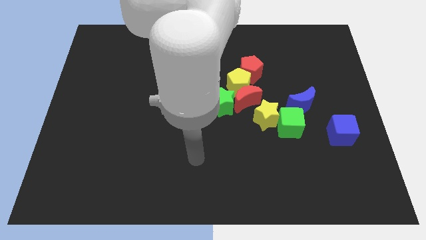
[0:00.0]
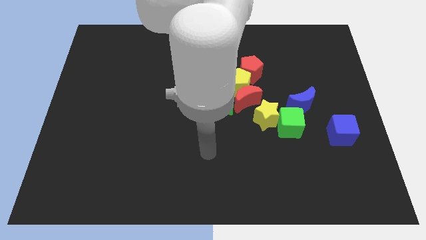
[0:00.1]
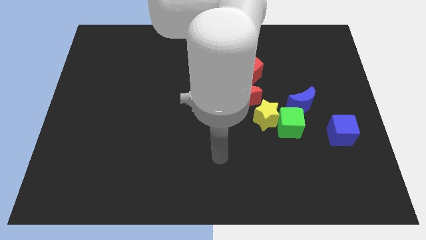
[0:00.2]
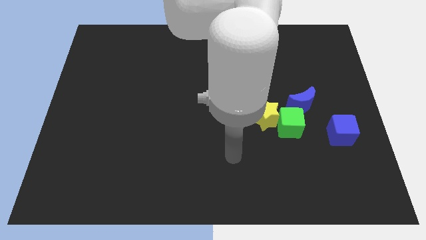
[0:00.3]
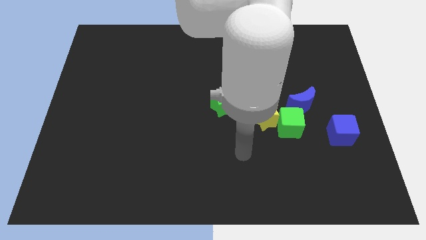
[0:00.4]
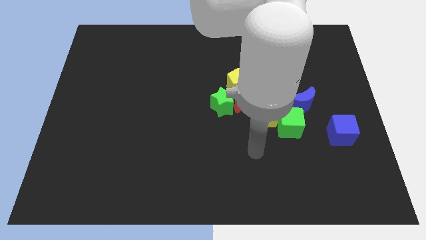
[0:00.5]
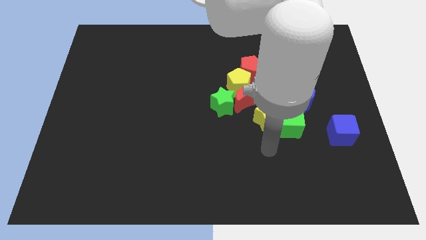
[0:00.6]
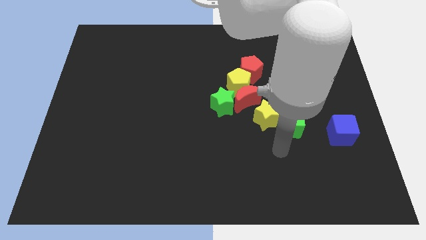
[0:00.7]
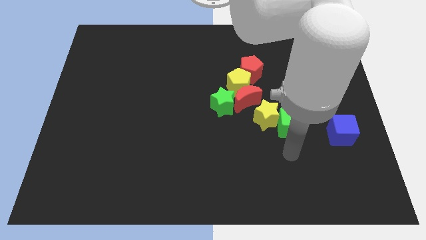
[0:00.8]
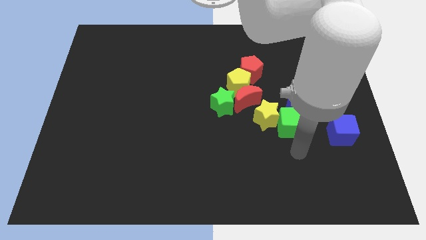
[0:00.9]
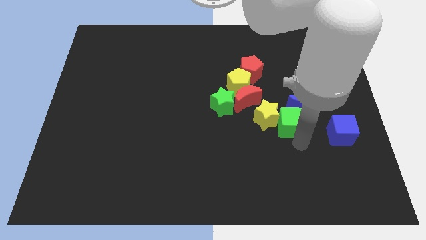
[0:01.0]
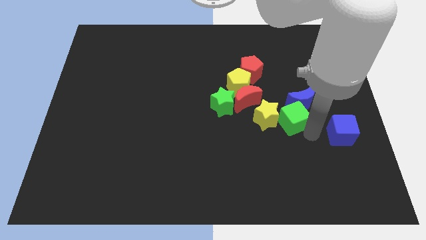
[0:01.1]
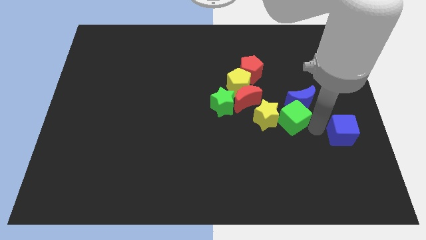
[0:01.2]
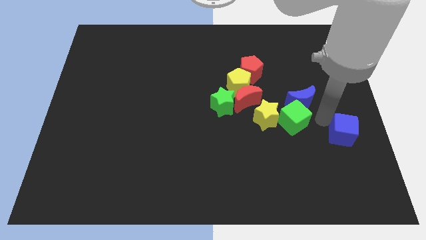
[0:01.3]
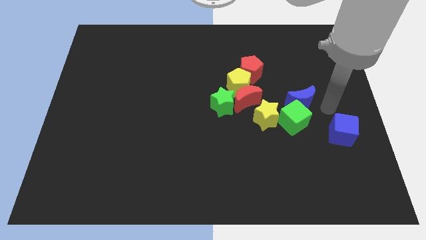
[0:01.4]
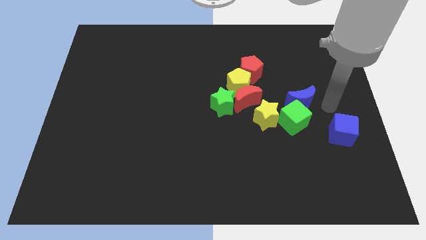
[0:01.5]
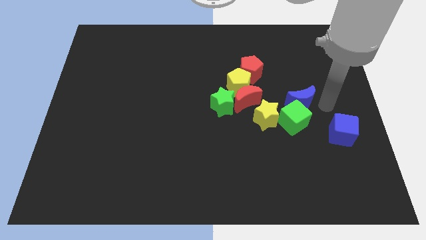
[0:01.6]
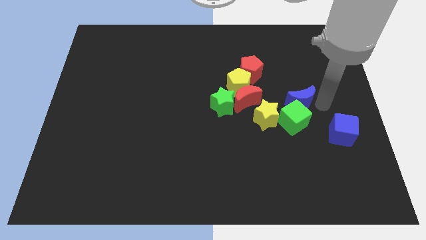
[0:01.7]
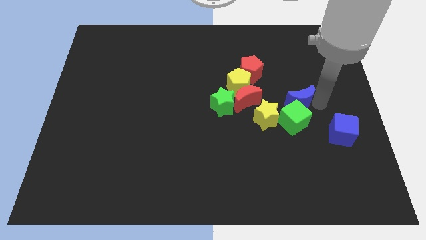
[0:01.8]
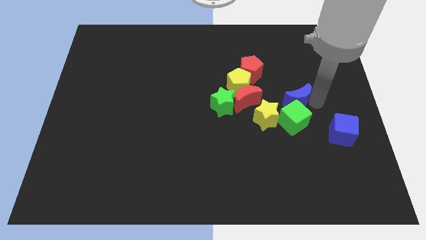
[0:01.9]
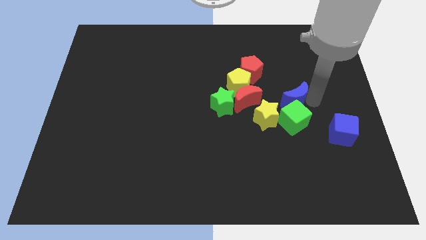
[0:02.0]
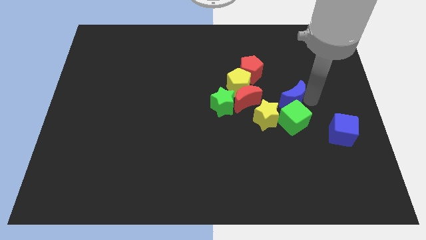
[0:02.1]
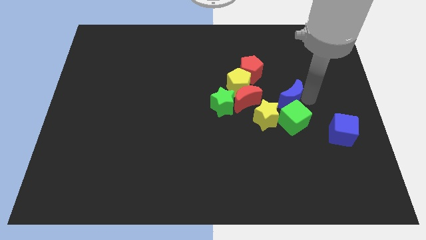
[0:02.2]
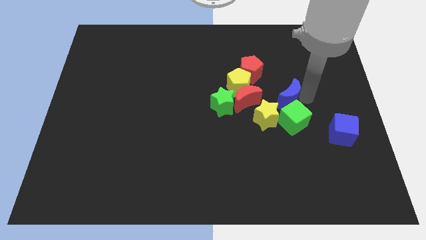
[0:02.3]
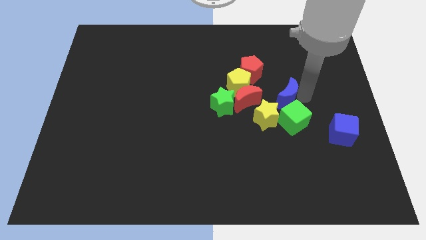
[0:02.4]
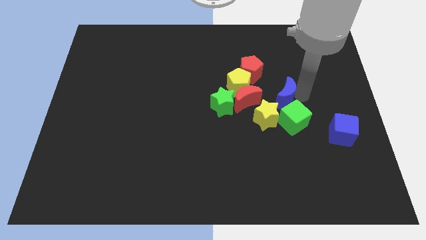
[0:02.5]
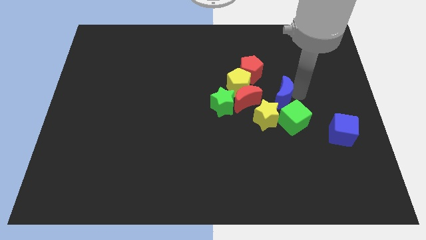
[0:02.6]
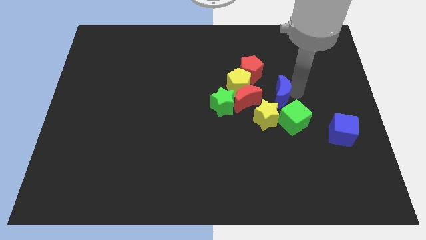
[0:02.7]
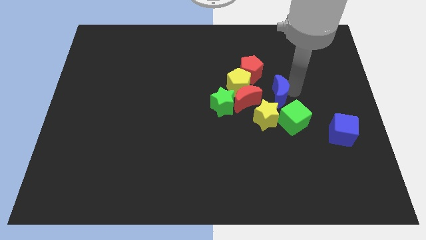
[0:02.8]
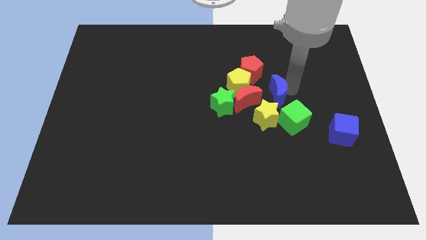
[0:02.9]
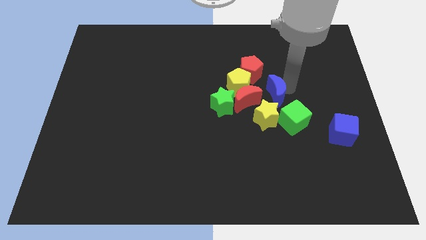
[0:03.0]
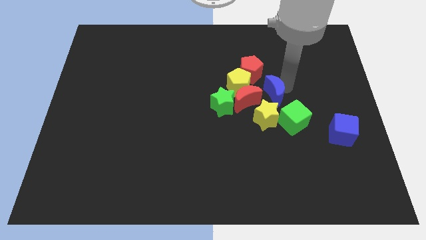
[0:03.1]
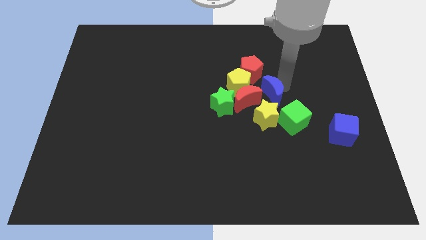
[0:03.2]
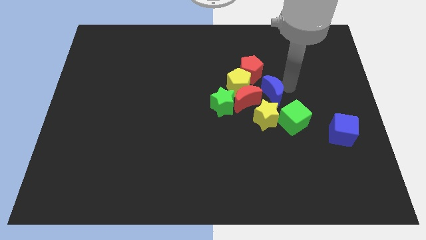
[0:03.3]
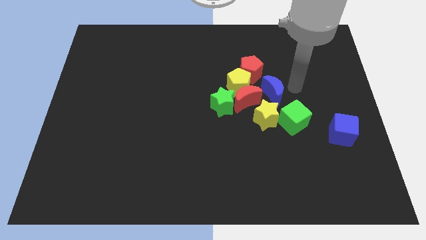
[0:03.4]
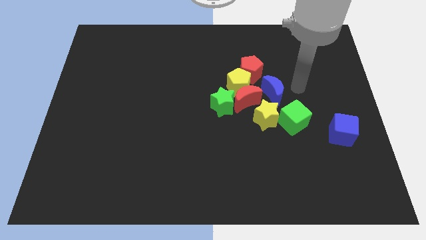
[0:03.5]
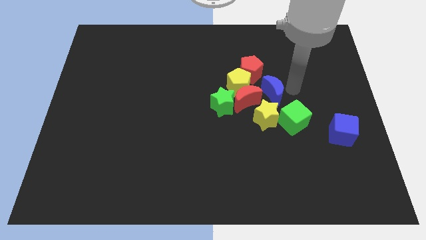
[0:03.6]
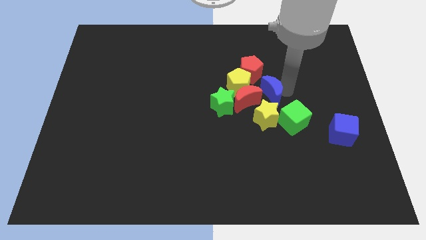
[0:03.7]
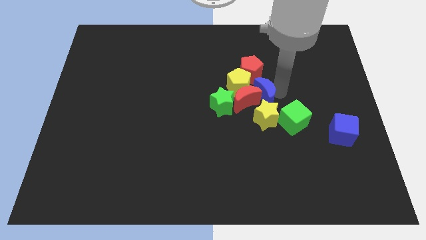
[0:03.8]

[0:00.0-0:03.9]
slide the blue moon to the red moon

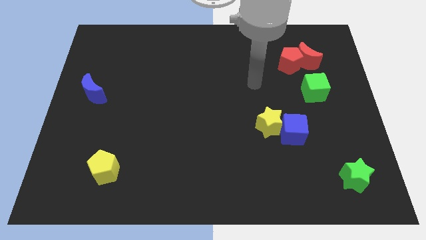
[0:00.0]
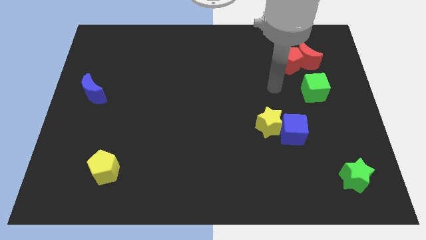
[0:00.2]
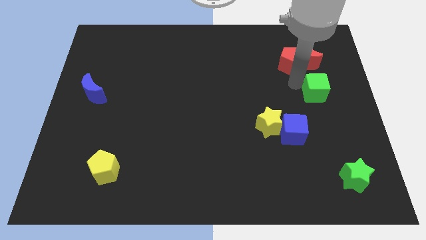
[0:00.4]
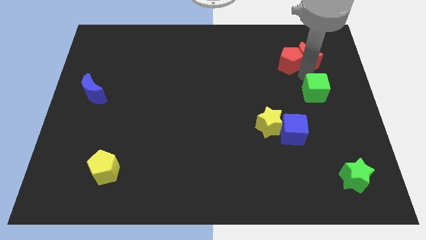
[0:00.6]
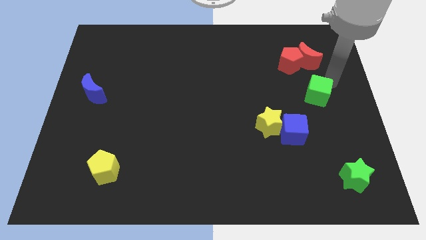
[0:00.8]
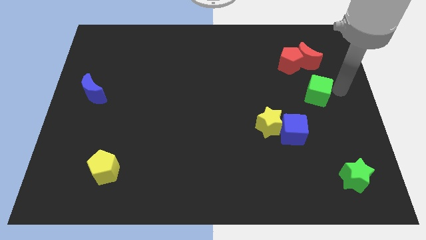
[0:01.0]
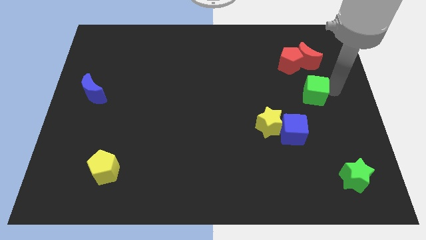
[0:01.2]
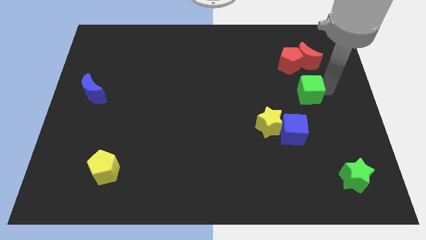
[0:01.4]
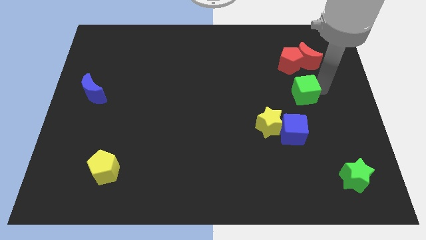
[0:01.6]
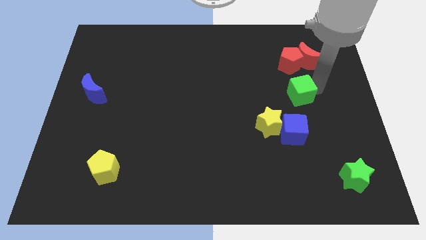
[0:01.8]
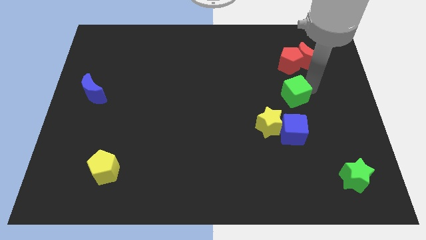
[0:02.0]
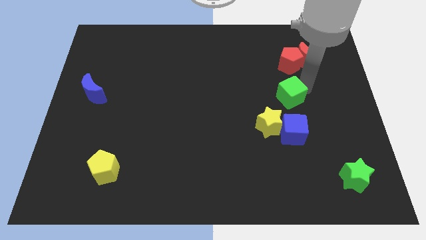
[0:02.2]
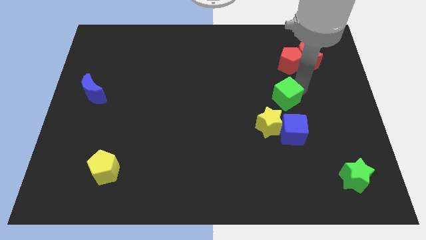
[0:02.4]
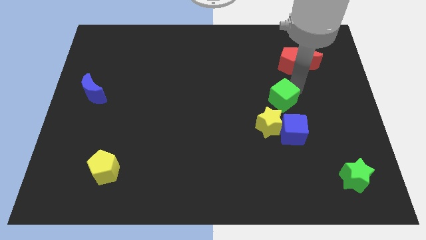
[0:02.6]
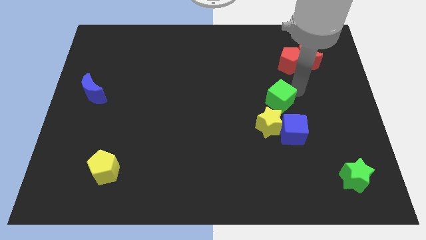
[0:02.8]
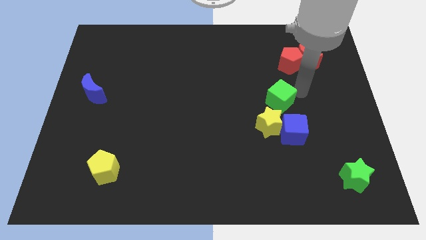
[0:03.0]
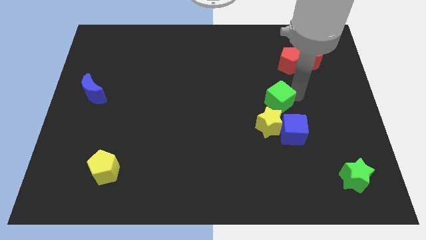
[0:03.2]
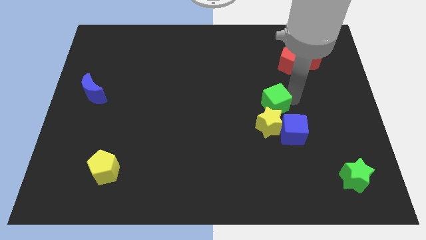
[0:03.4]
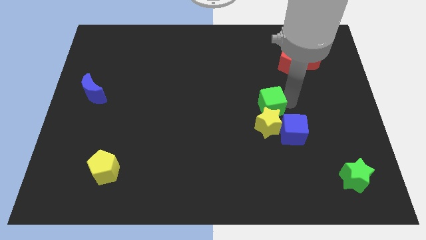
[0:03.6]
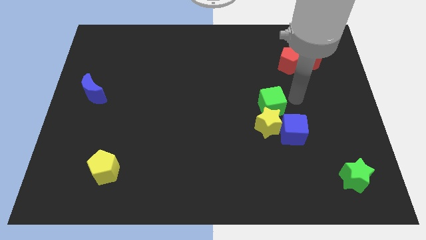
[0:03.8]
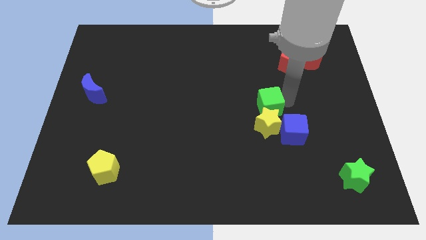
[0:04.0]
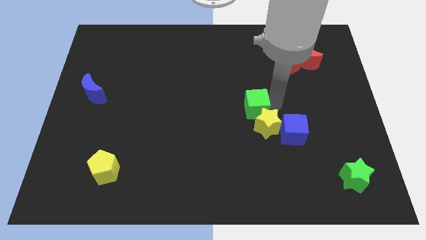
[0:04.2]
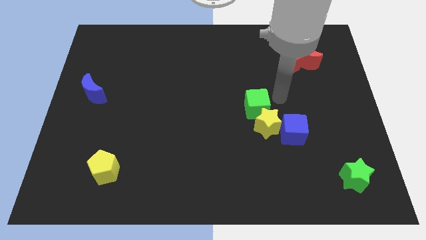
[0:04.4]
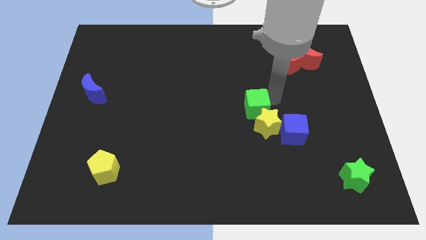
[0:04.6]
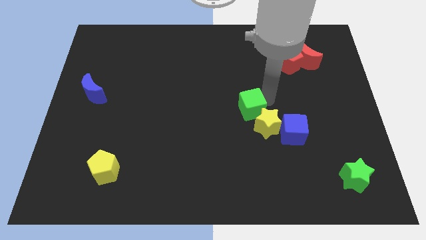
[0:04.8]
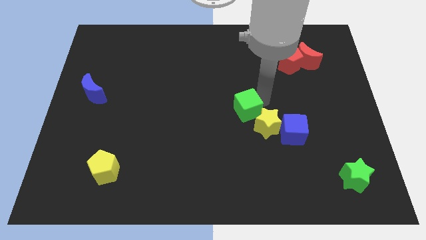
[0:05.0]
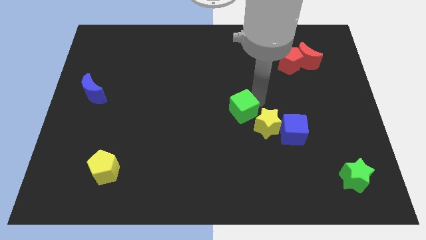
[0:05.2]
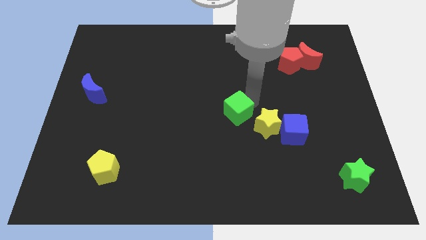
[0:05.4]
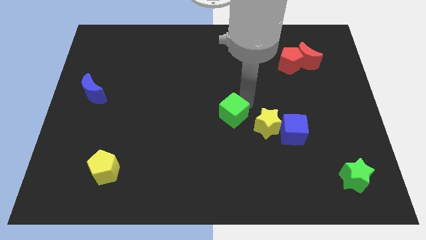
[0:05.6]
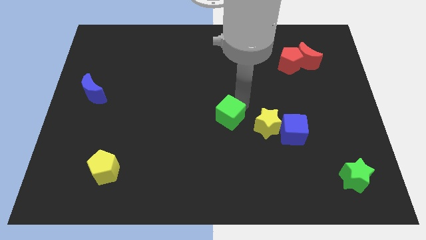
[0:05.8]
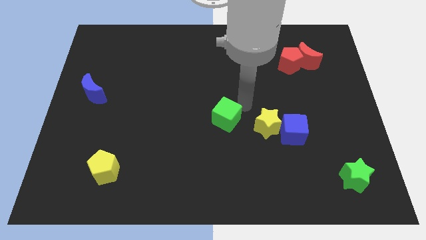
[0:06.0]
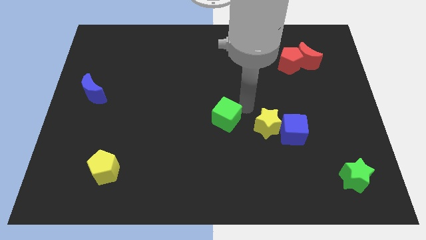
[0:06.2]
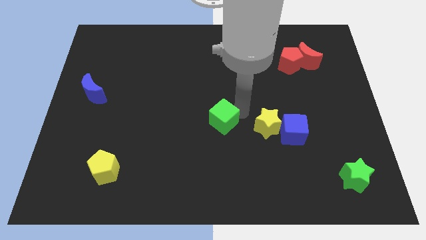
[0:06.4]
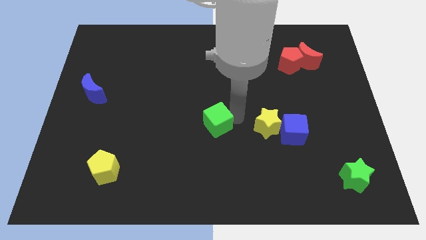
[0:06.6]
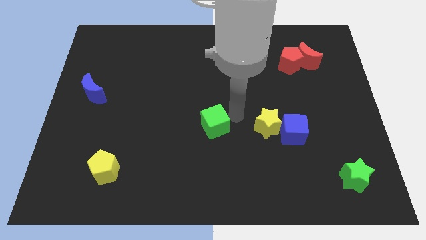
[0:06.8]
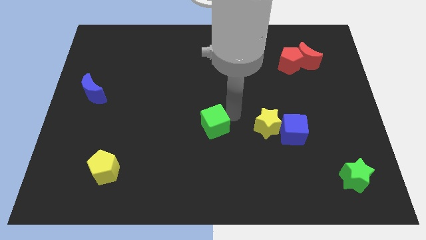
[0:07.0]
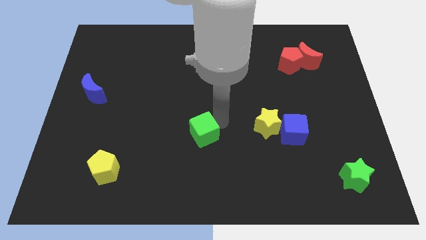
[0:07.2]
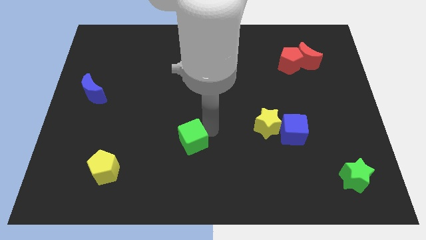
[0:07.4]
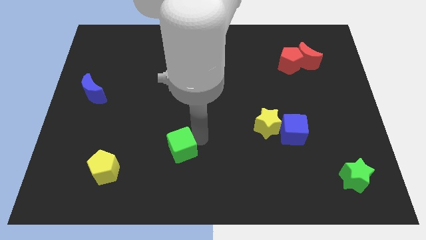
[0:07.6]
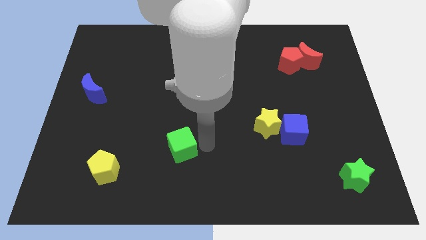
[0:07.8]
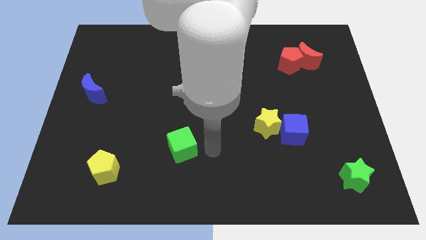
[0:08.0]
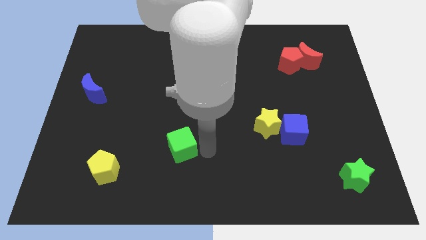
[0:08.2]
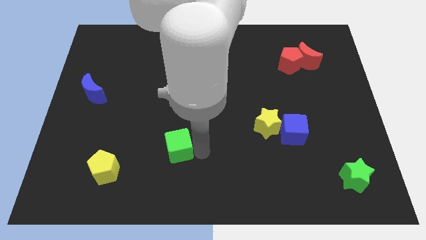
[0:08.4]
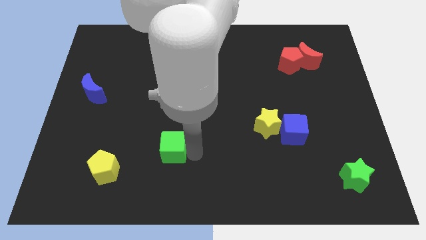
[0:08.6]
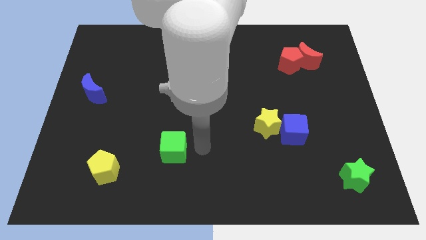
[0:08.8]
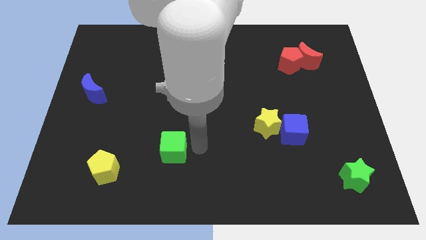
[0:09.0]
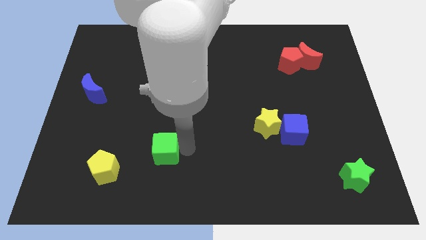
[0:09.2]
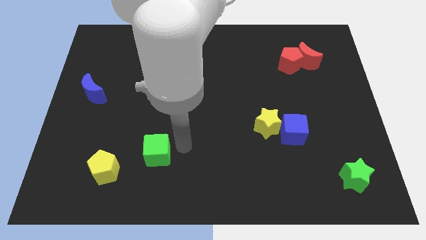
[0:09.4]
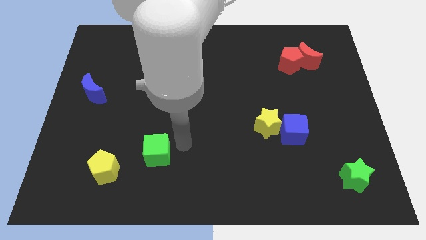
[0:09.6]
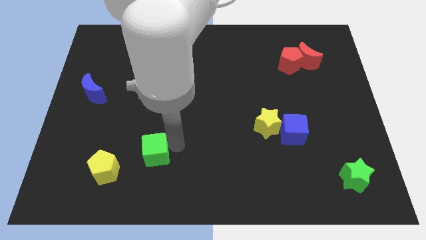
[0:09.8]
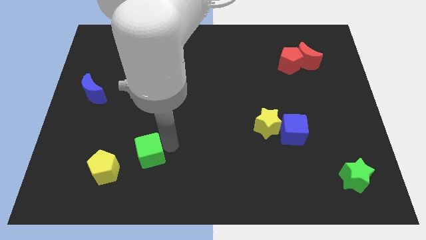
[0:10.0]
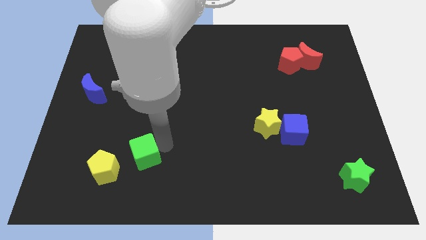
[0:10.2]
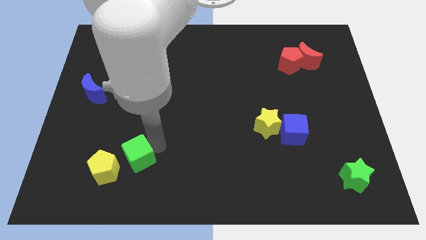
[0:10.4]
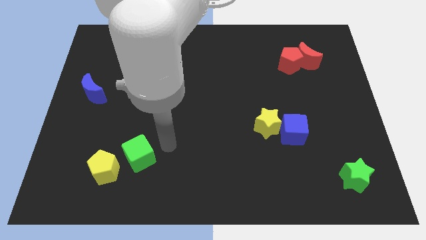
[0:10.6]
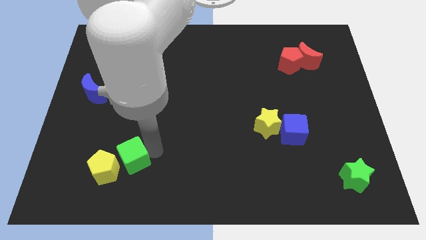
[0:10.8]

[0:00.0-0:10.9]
push the green cube close to the yellow pentagon
